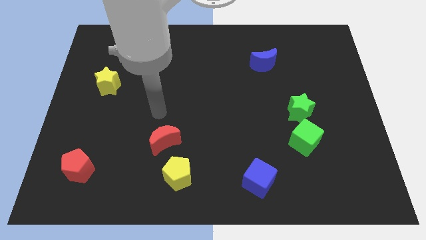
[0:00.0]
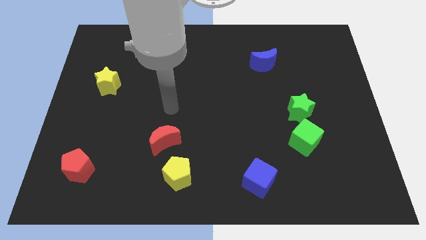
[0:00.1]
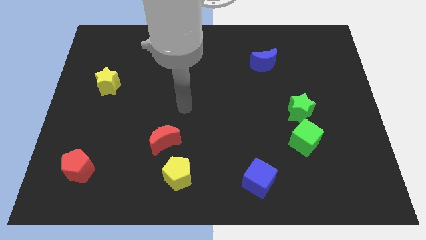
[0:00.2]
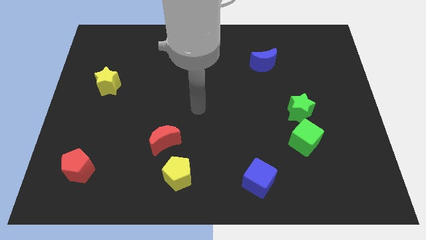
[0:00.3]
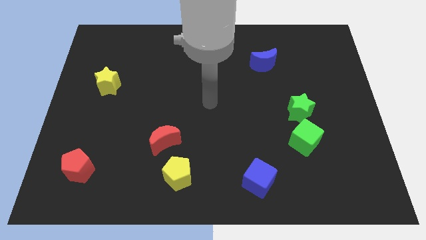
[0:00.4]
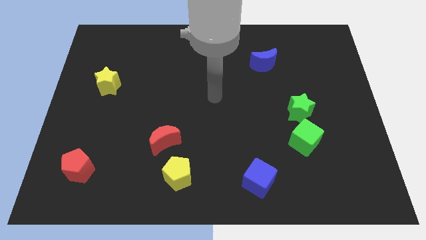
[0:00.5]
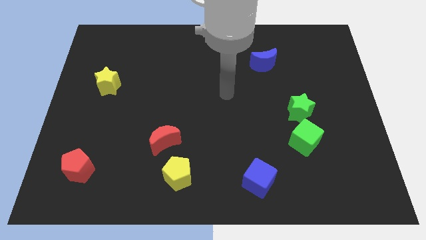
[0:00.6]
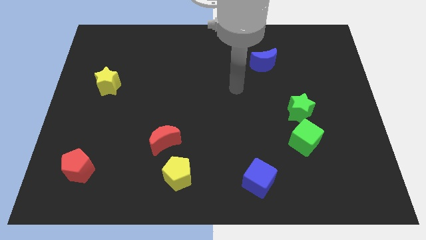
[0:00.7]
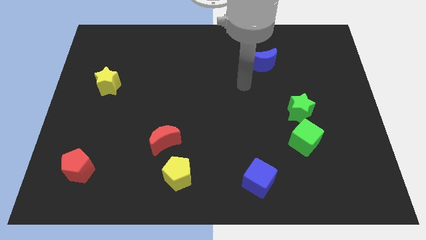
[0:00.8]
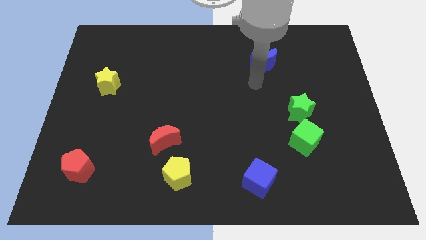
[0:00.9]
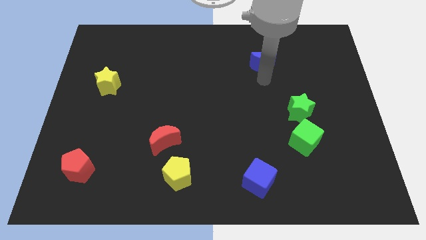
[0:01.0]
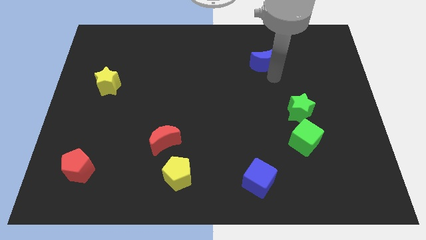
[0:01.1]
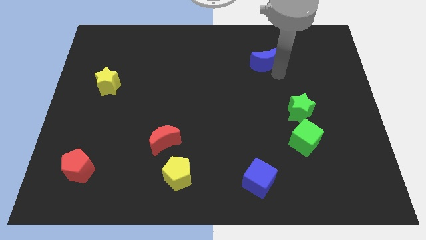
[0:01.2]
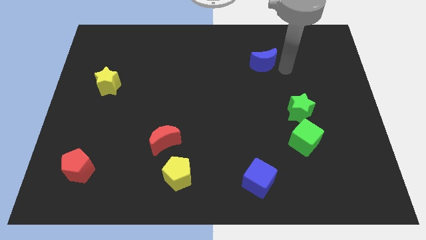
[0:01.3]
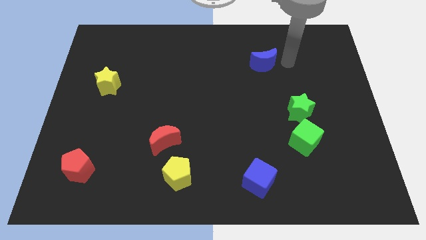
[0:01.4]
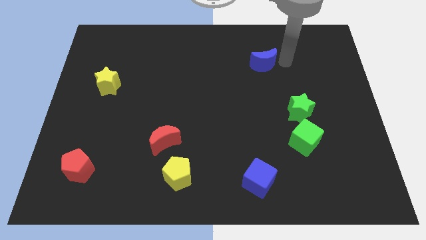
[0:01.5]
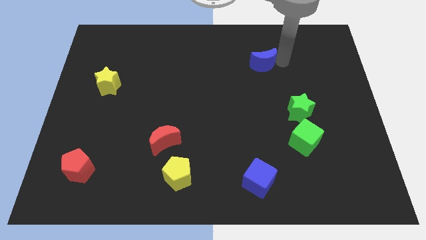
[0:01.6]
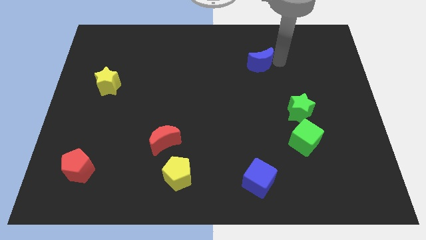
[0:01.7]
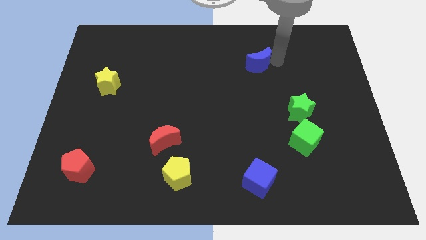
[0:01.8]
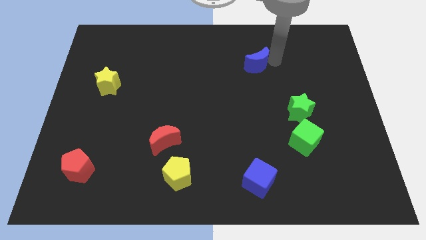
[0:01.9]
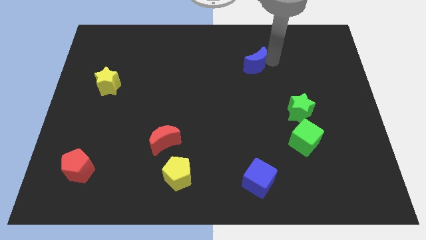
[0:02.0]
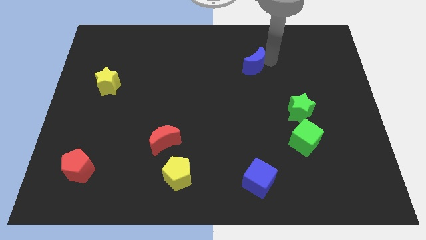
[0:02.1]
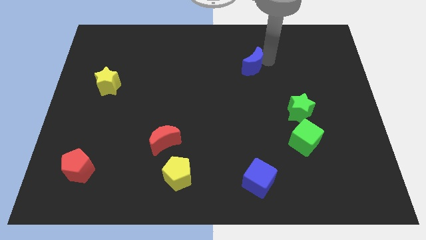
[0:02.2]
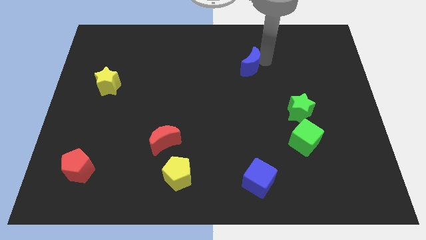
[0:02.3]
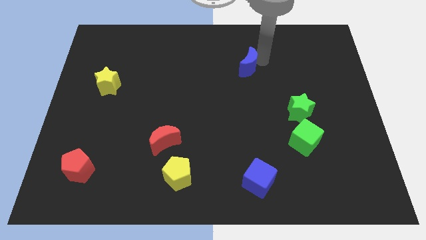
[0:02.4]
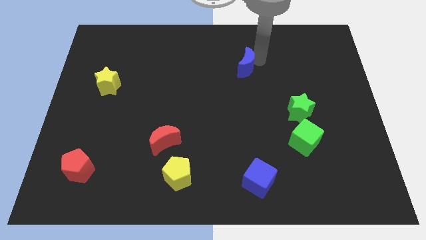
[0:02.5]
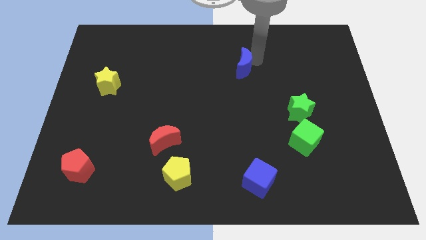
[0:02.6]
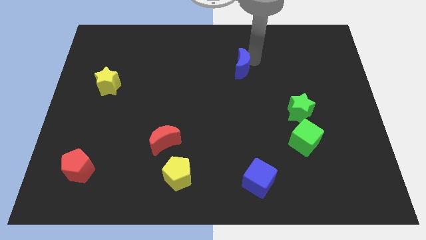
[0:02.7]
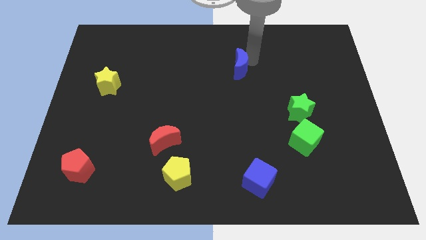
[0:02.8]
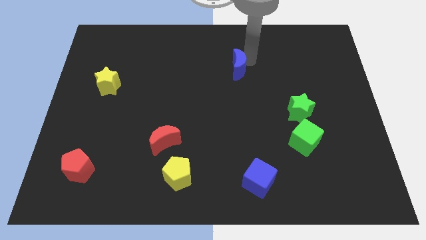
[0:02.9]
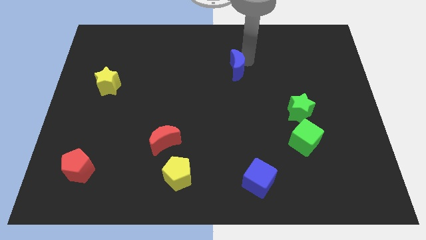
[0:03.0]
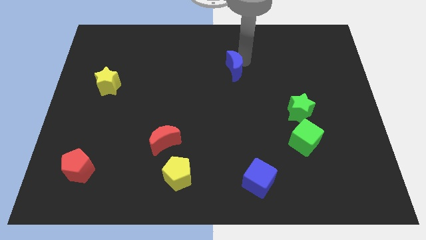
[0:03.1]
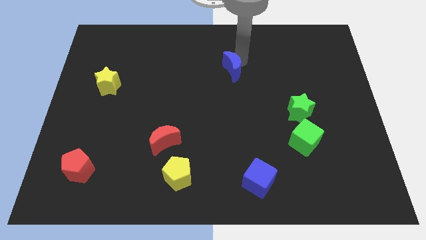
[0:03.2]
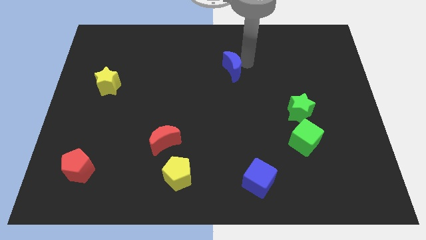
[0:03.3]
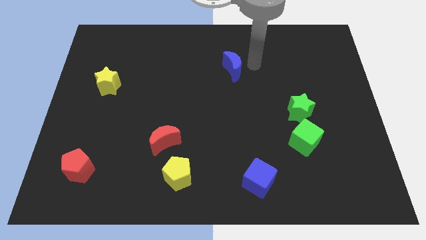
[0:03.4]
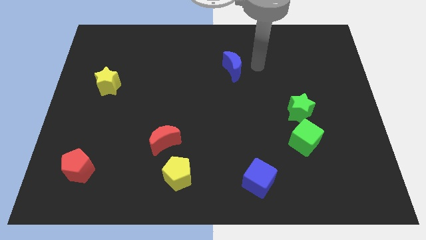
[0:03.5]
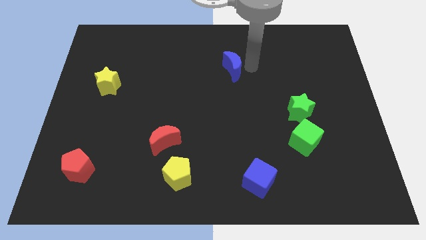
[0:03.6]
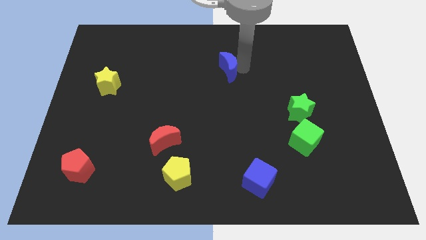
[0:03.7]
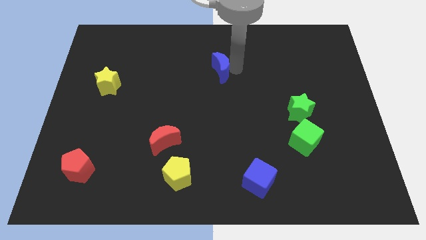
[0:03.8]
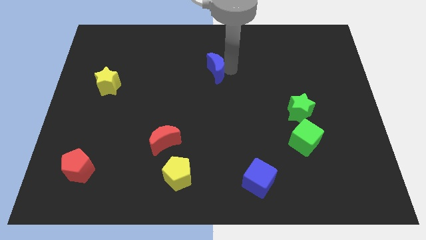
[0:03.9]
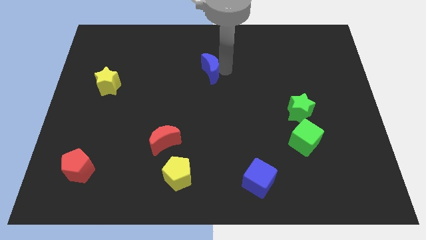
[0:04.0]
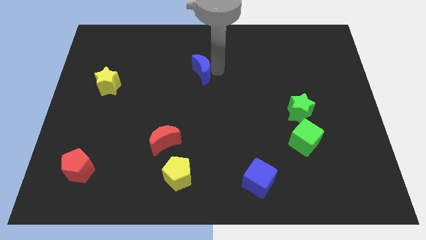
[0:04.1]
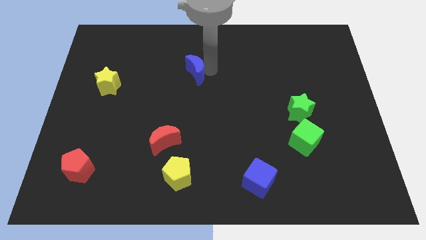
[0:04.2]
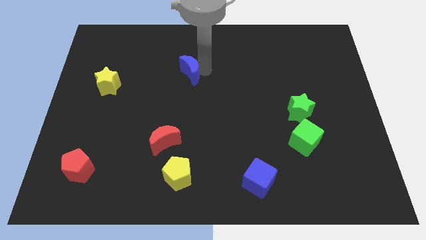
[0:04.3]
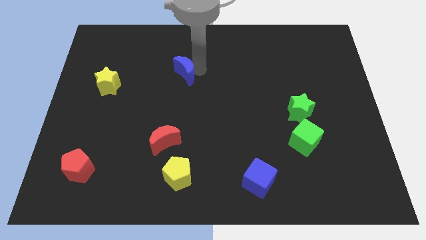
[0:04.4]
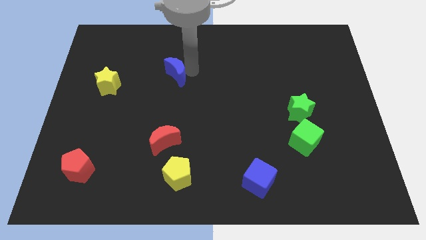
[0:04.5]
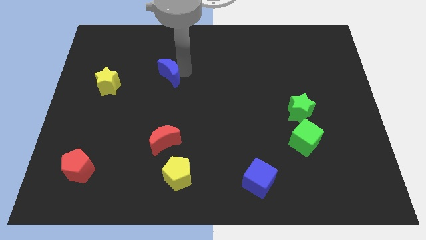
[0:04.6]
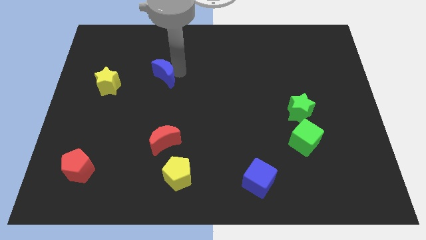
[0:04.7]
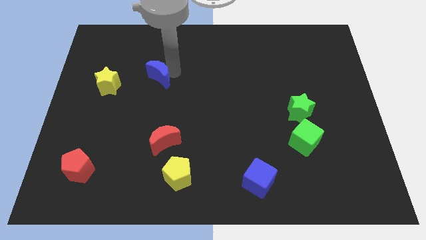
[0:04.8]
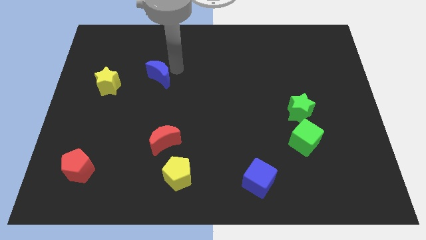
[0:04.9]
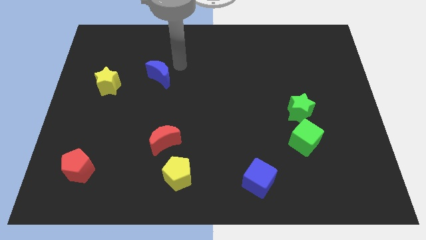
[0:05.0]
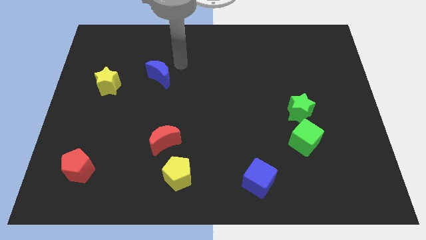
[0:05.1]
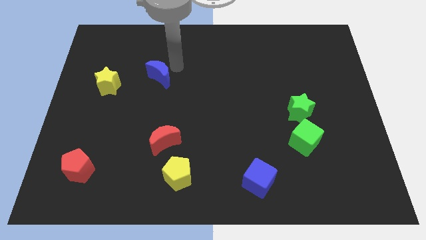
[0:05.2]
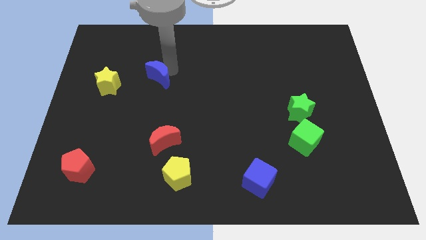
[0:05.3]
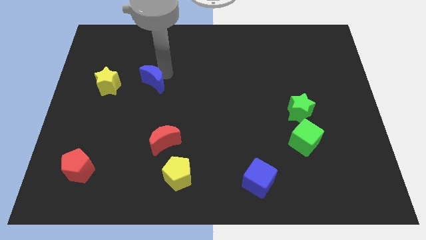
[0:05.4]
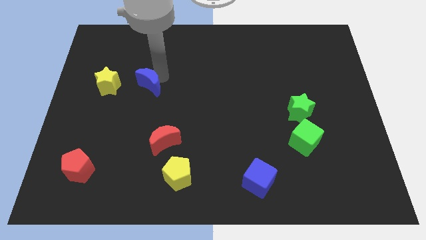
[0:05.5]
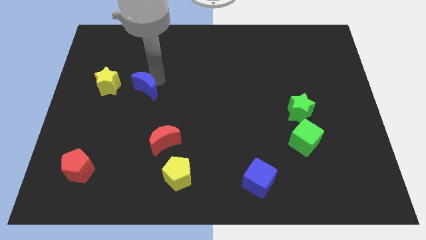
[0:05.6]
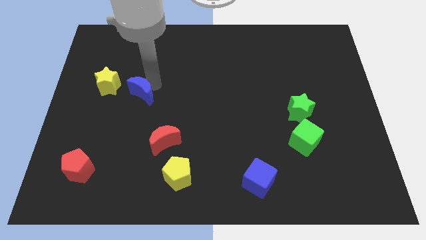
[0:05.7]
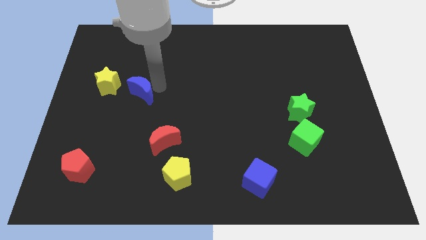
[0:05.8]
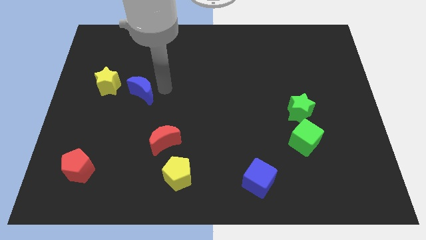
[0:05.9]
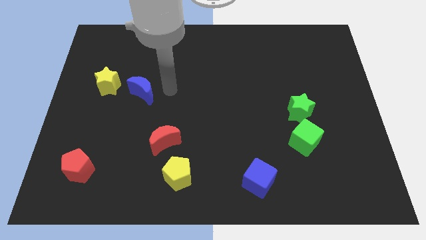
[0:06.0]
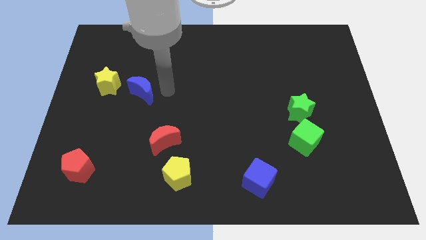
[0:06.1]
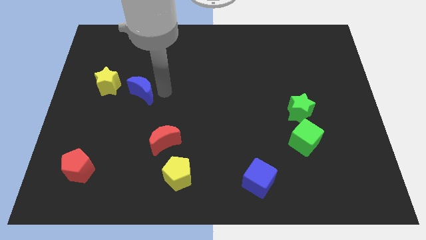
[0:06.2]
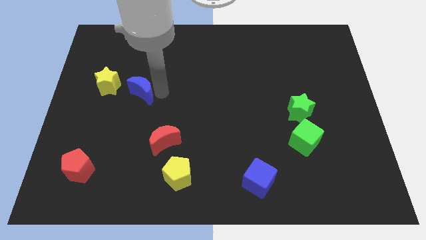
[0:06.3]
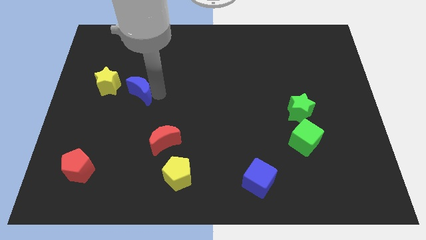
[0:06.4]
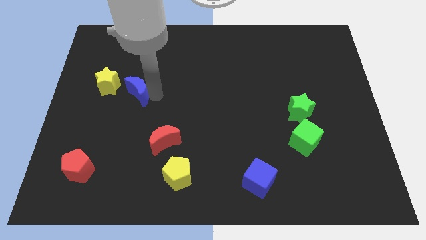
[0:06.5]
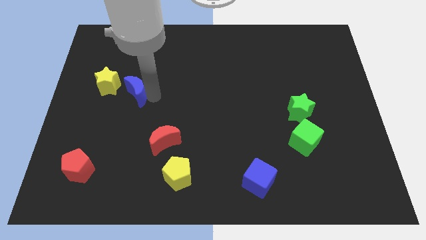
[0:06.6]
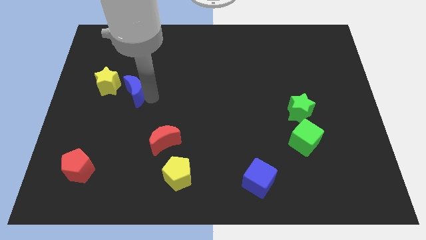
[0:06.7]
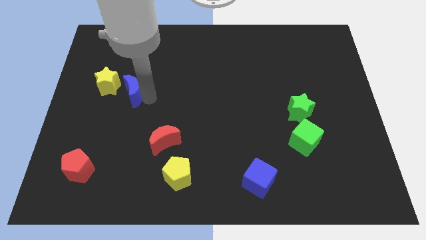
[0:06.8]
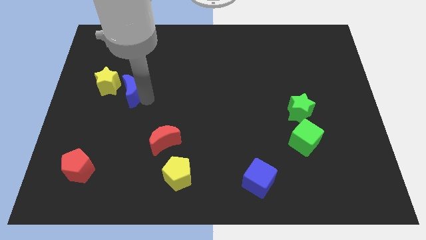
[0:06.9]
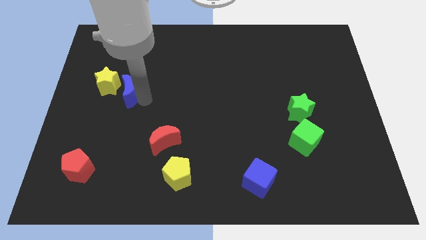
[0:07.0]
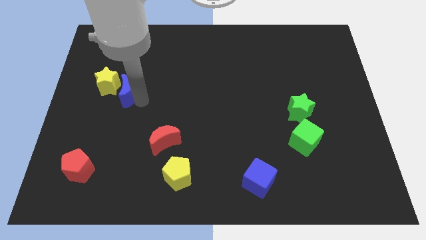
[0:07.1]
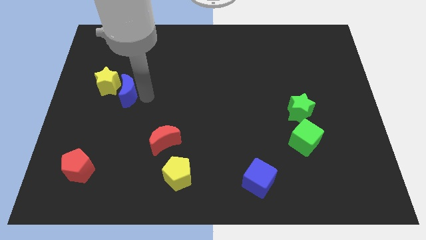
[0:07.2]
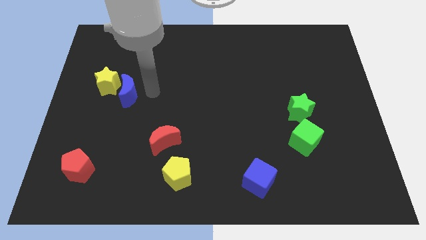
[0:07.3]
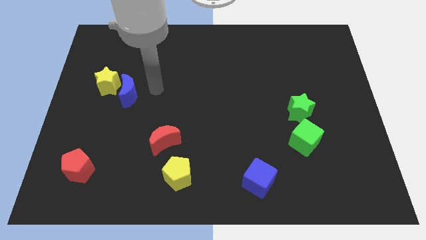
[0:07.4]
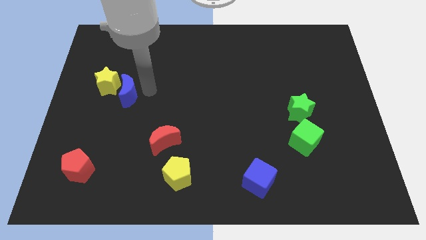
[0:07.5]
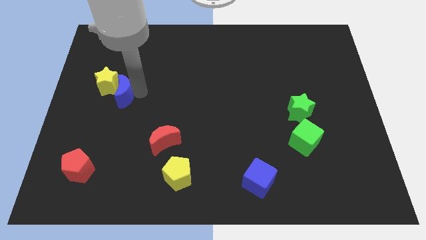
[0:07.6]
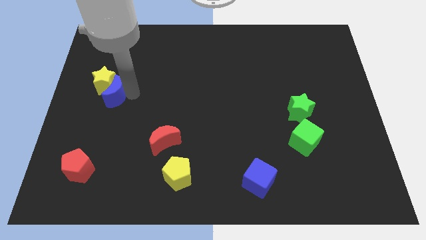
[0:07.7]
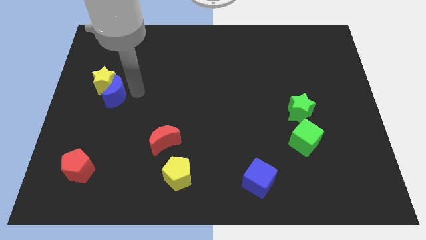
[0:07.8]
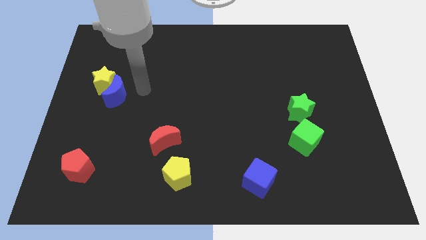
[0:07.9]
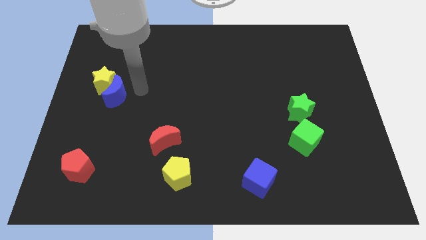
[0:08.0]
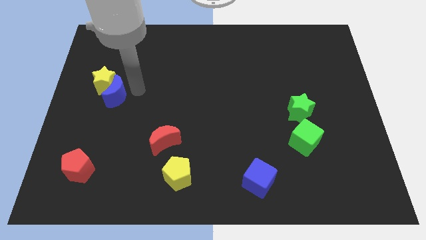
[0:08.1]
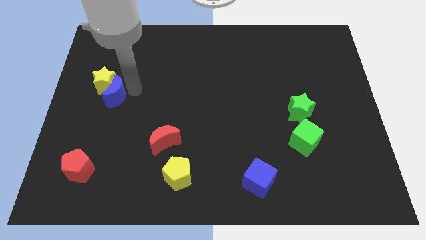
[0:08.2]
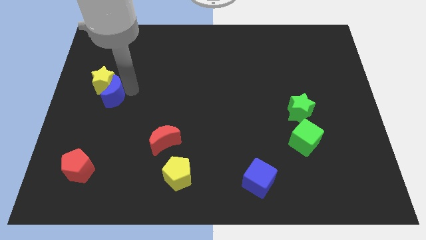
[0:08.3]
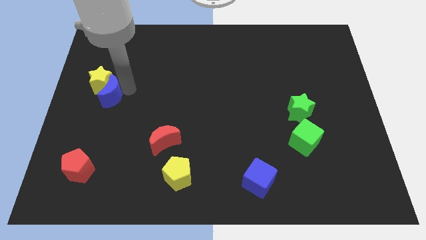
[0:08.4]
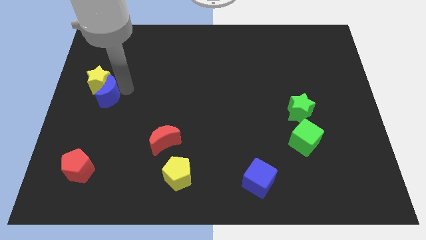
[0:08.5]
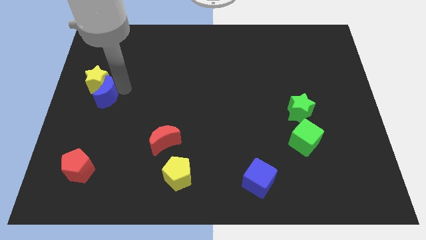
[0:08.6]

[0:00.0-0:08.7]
push the blue moon to the left side
